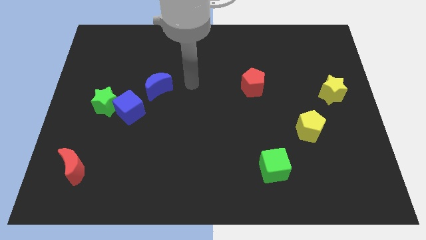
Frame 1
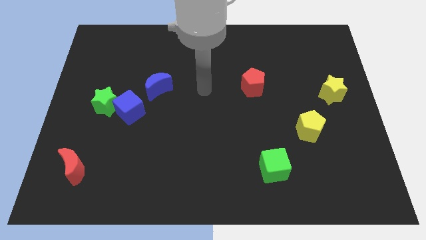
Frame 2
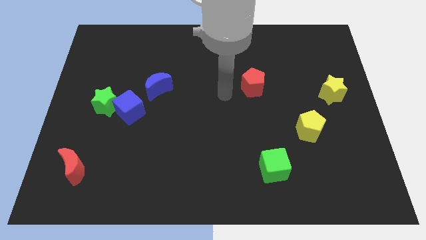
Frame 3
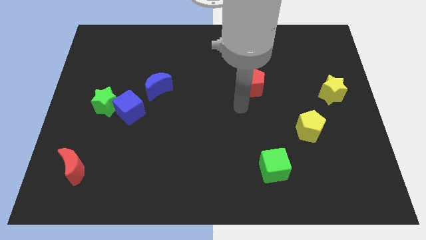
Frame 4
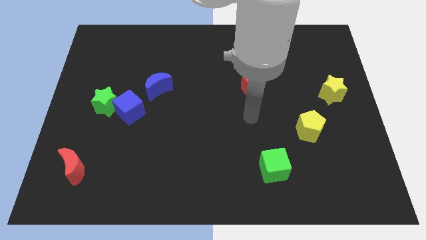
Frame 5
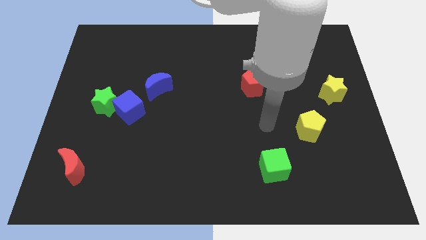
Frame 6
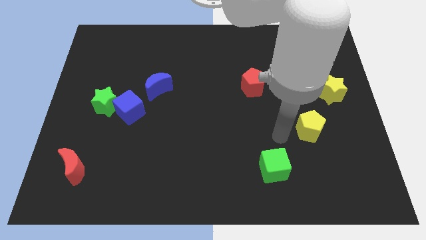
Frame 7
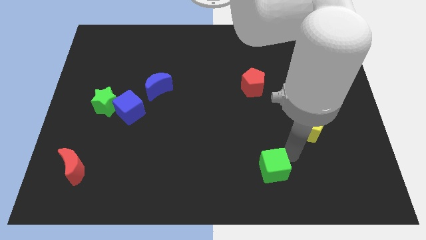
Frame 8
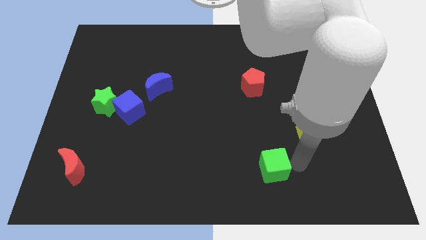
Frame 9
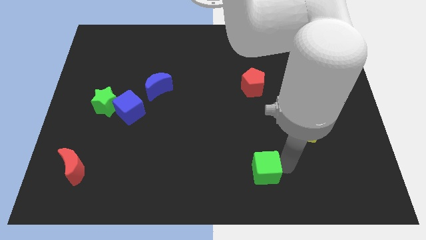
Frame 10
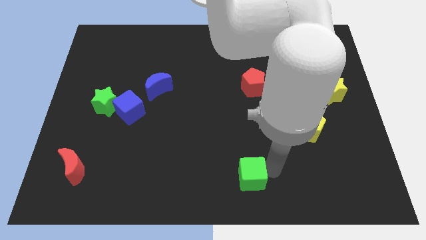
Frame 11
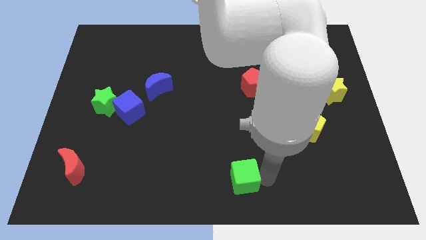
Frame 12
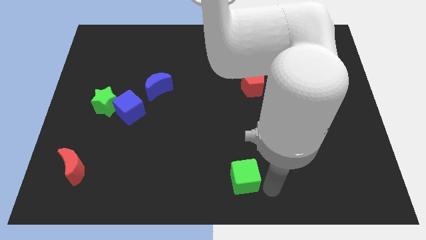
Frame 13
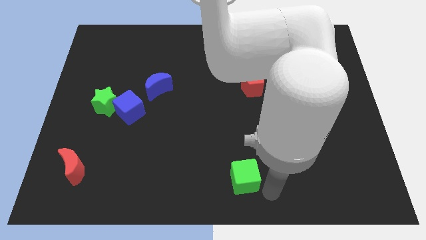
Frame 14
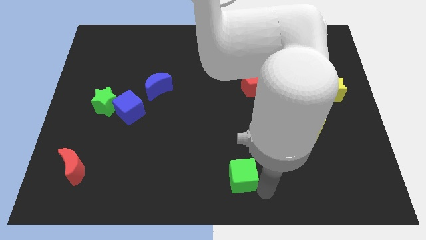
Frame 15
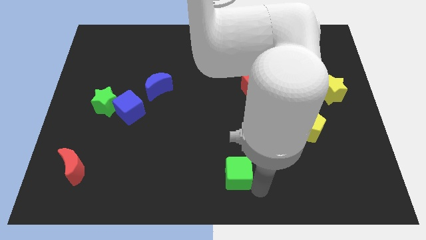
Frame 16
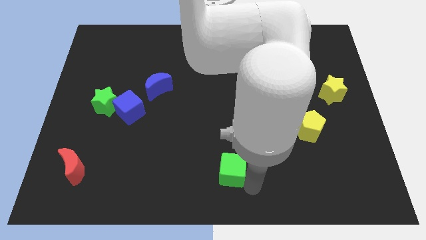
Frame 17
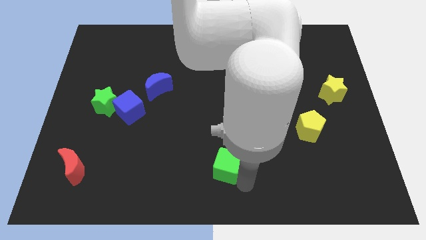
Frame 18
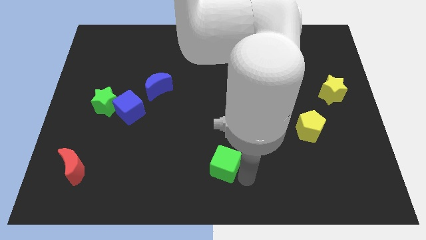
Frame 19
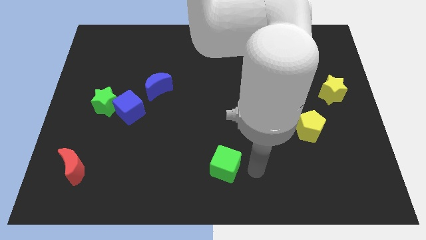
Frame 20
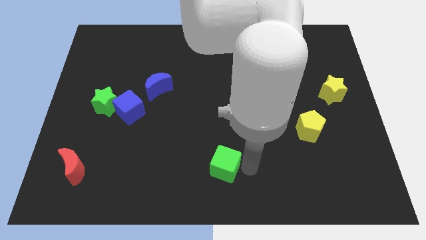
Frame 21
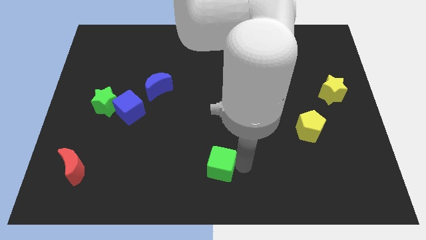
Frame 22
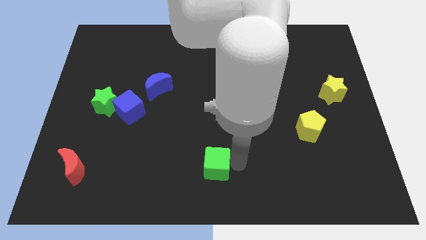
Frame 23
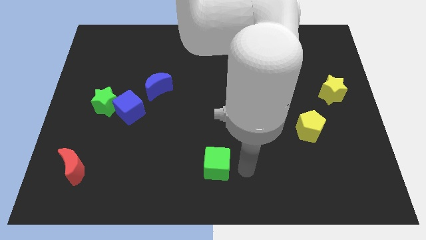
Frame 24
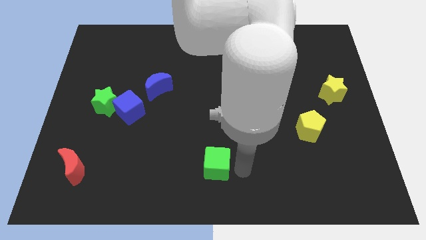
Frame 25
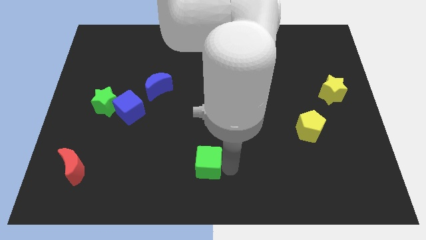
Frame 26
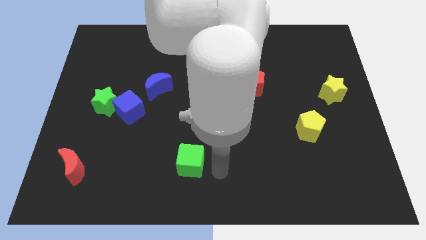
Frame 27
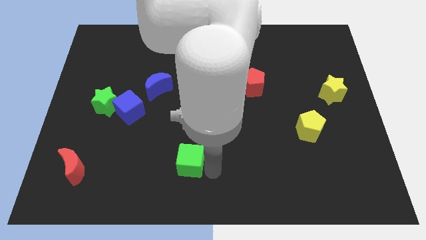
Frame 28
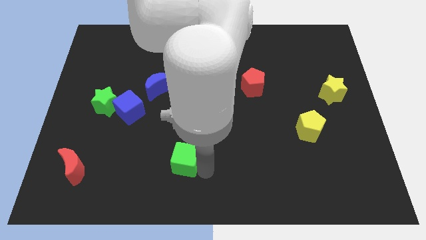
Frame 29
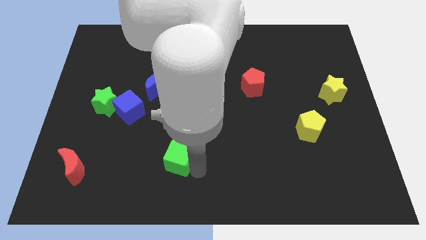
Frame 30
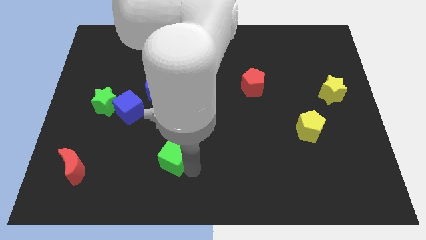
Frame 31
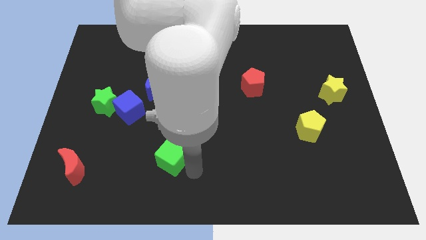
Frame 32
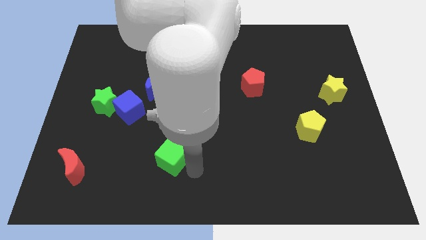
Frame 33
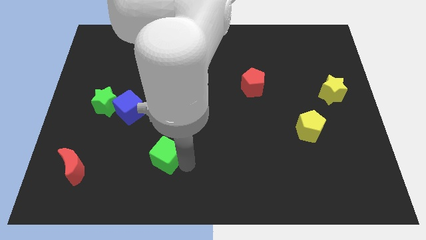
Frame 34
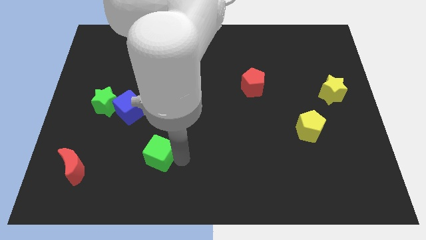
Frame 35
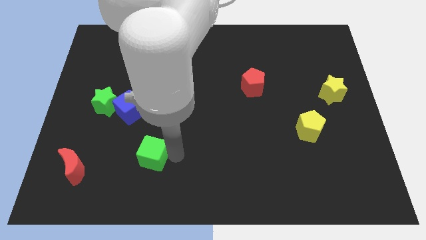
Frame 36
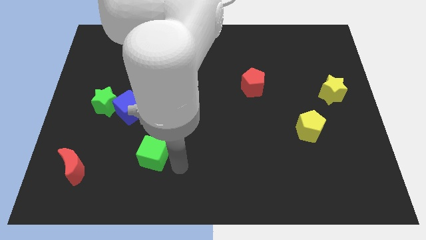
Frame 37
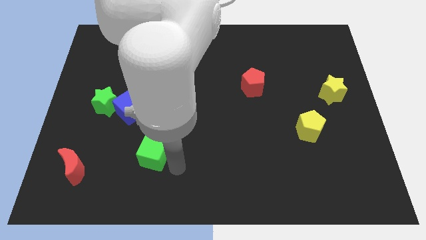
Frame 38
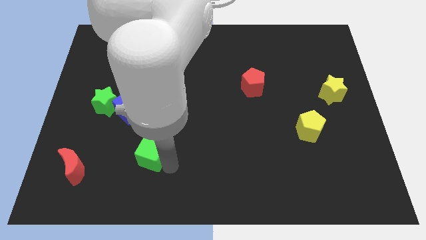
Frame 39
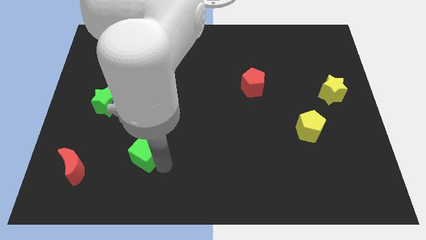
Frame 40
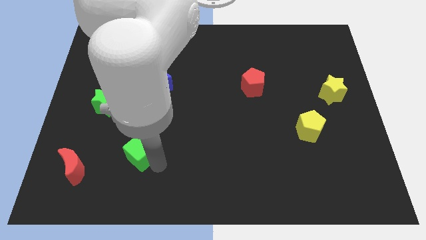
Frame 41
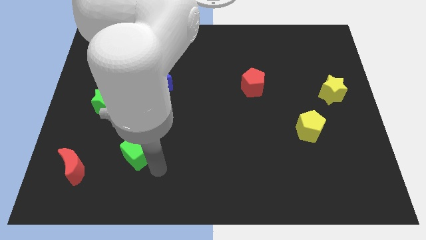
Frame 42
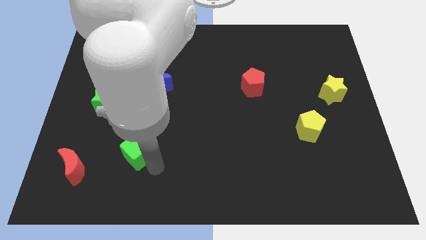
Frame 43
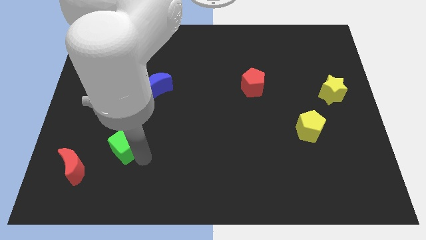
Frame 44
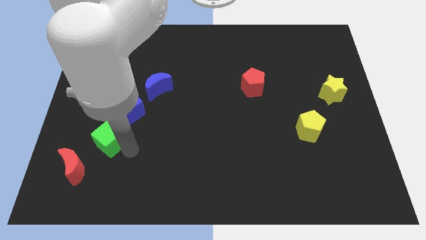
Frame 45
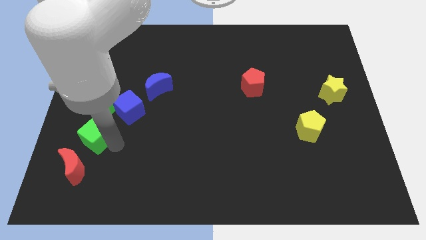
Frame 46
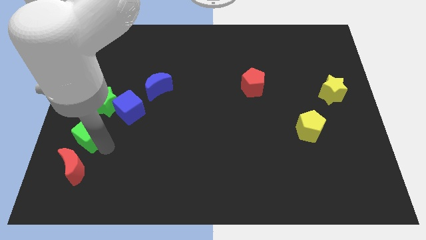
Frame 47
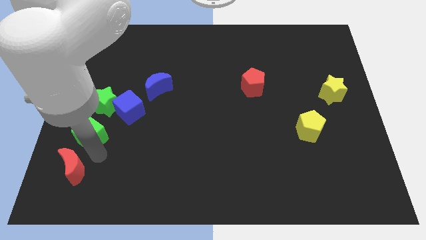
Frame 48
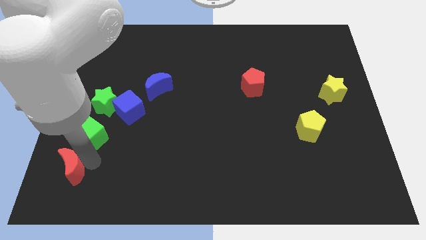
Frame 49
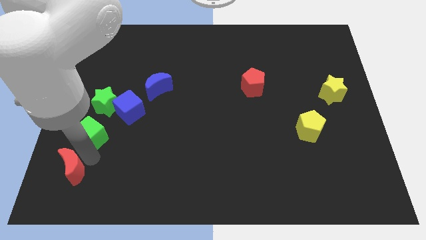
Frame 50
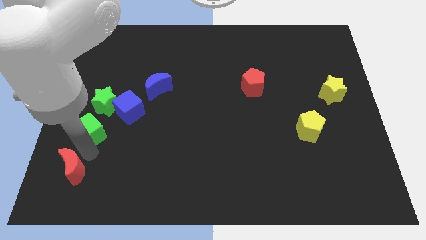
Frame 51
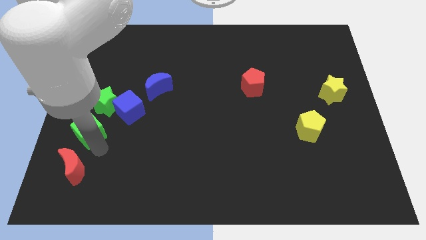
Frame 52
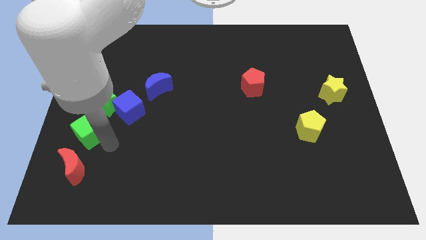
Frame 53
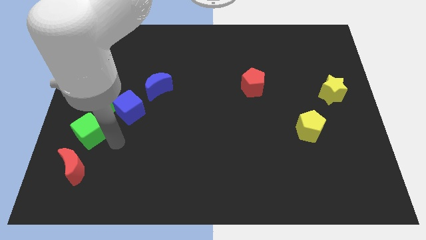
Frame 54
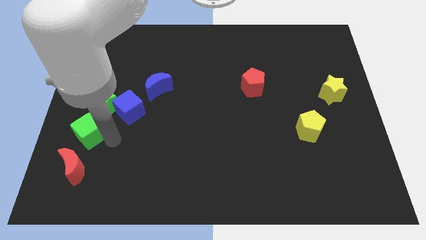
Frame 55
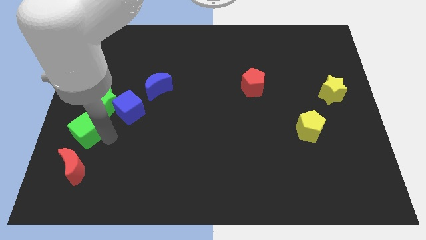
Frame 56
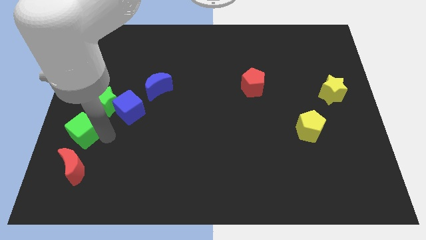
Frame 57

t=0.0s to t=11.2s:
put the green cube to the left side of the board
